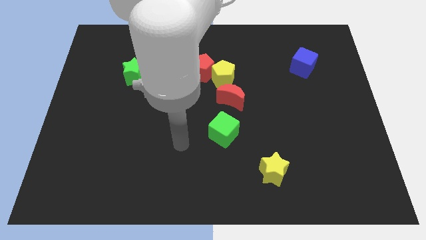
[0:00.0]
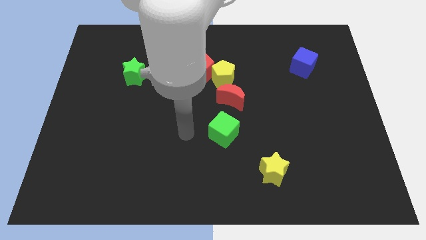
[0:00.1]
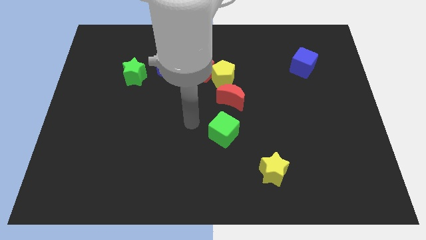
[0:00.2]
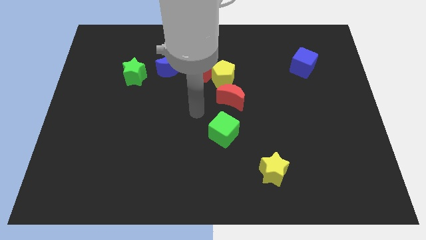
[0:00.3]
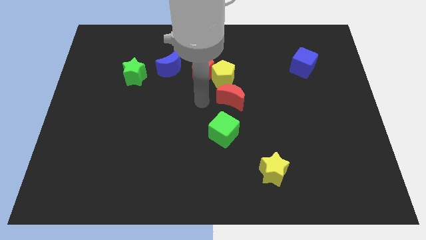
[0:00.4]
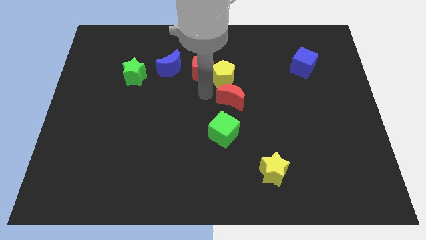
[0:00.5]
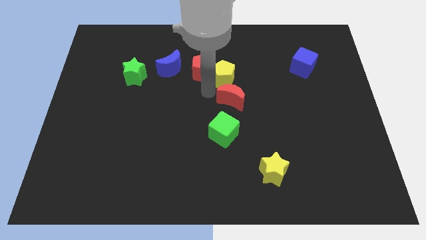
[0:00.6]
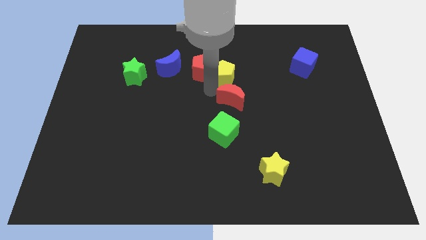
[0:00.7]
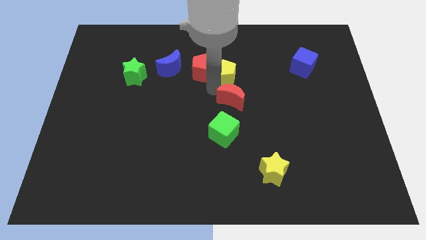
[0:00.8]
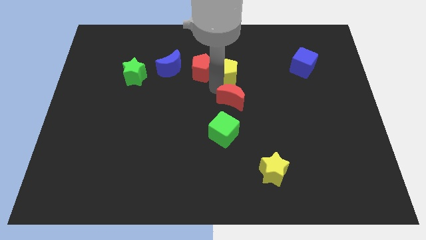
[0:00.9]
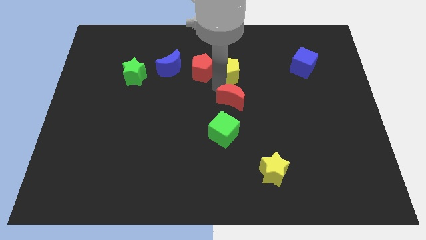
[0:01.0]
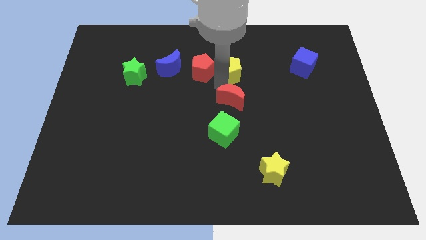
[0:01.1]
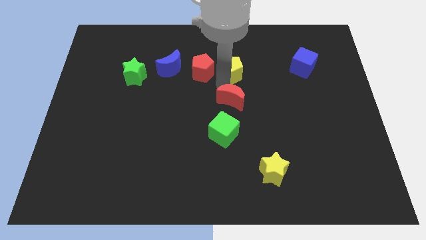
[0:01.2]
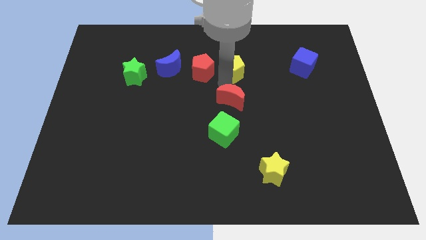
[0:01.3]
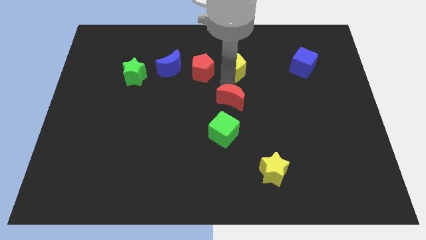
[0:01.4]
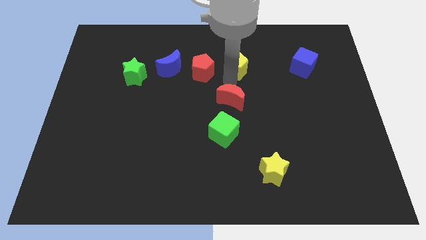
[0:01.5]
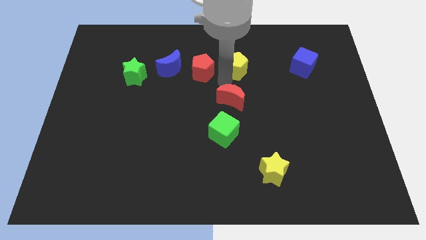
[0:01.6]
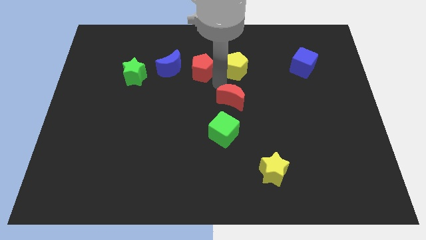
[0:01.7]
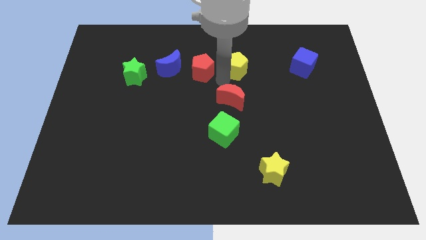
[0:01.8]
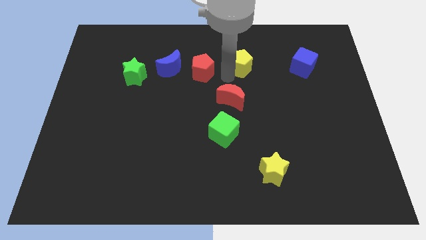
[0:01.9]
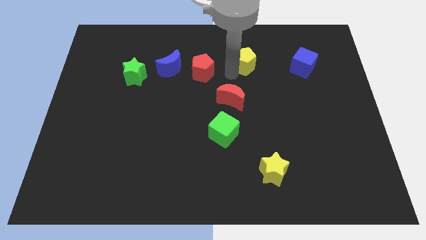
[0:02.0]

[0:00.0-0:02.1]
move the yellow pentagon away from the red pentagon and red moon

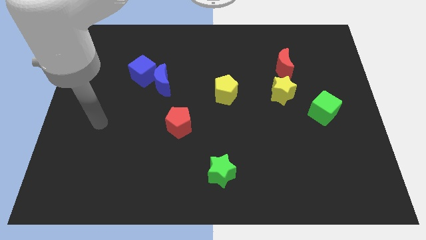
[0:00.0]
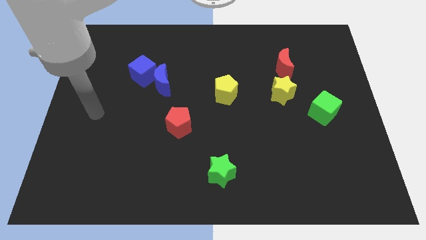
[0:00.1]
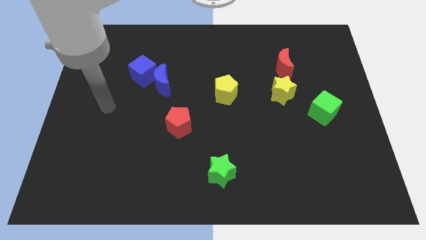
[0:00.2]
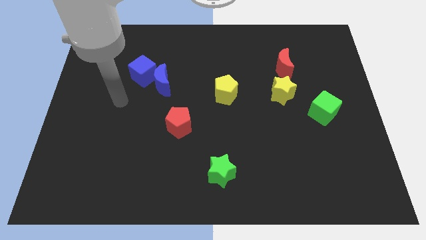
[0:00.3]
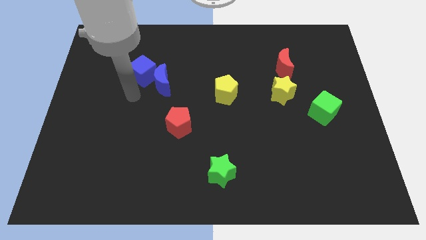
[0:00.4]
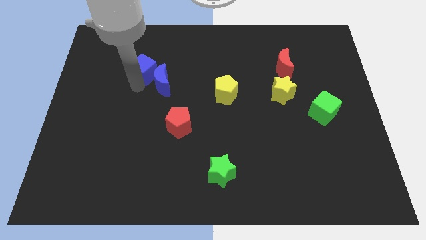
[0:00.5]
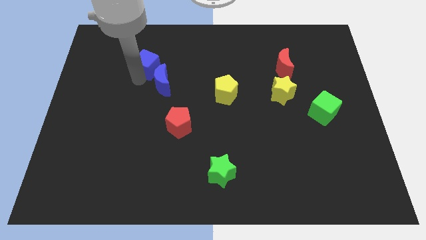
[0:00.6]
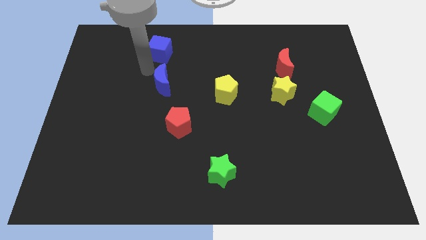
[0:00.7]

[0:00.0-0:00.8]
separate the blue moon from the blue cube

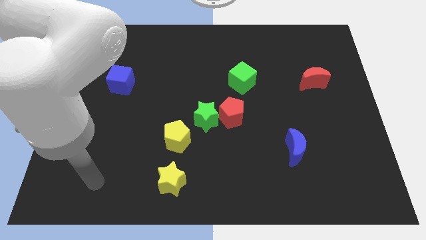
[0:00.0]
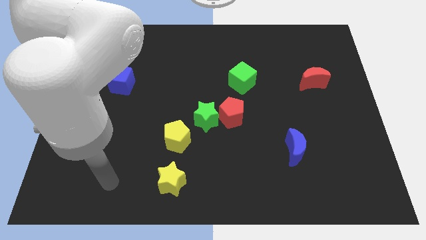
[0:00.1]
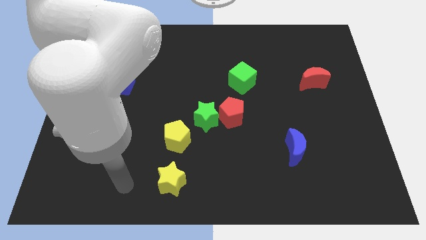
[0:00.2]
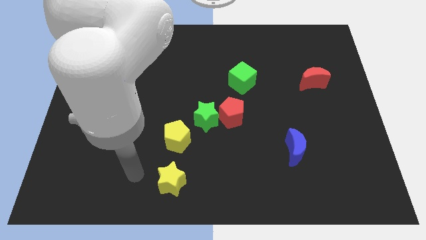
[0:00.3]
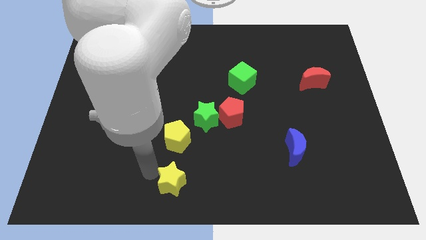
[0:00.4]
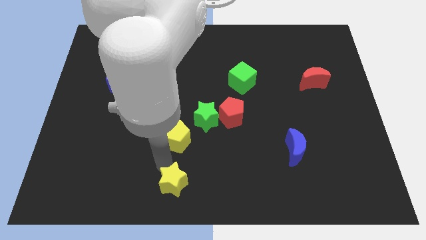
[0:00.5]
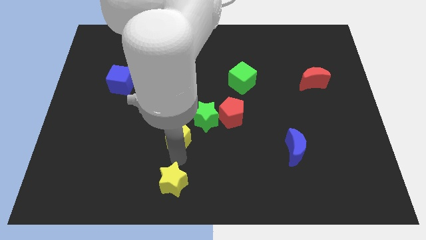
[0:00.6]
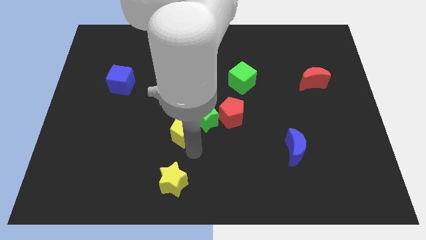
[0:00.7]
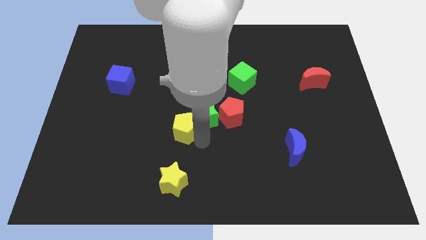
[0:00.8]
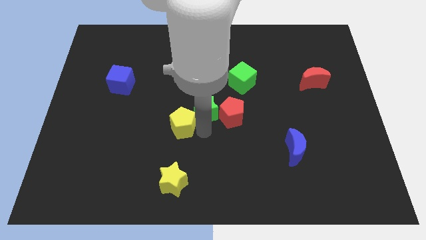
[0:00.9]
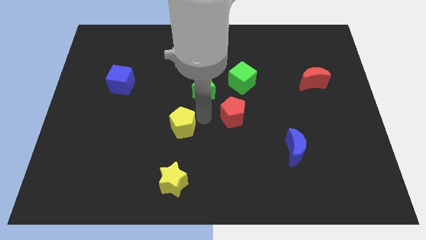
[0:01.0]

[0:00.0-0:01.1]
move the red pentagon away from the green star

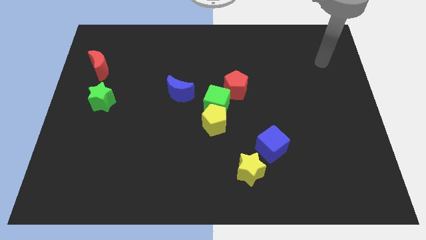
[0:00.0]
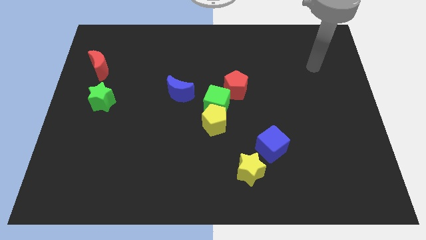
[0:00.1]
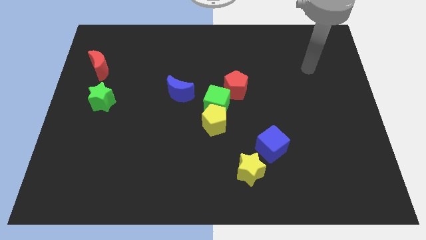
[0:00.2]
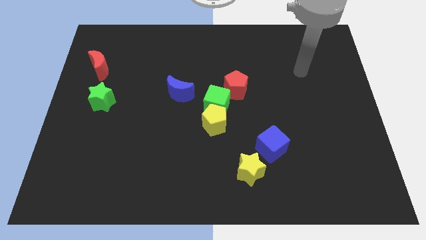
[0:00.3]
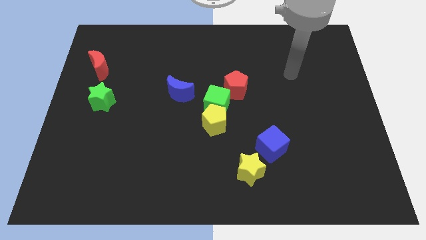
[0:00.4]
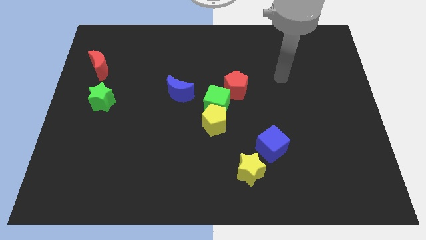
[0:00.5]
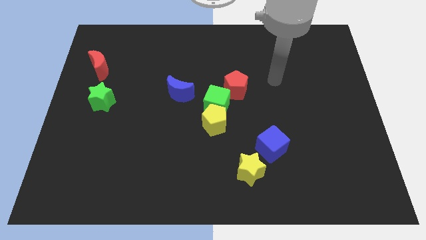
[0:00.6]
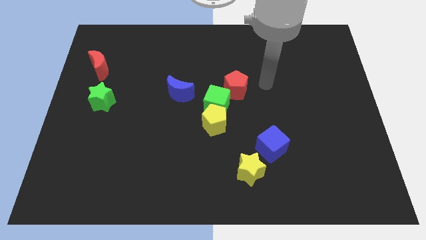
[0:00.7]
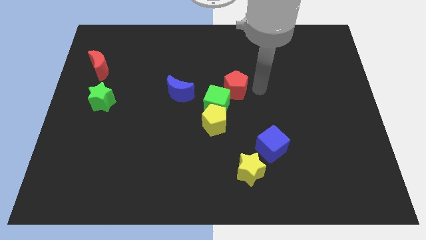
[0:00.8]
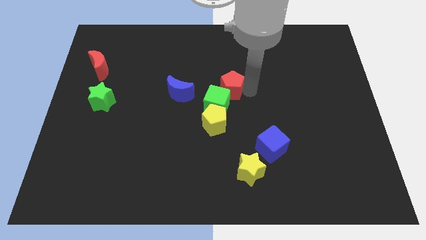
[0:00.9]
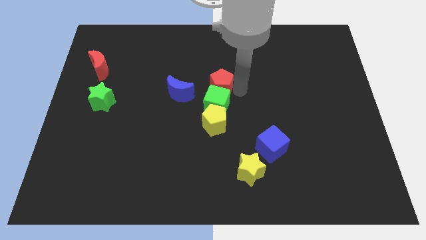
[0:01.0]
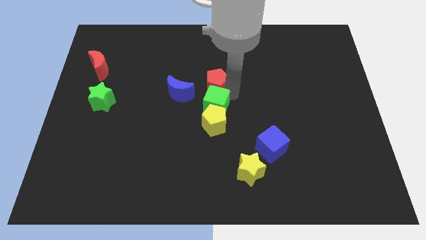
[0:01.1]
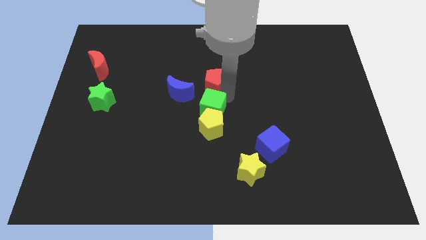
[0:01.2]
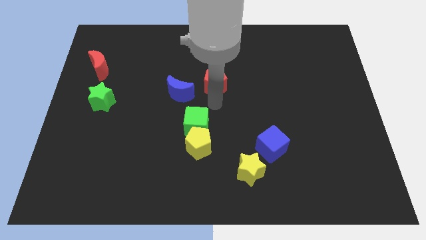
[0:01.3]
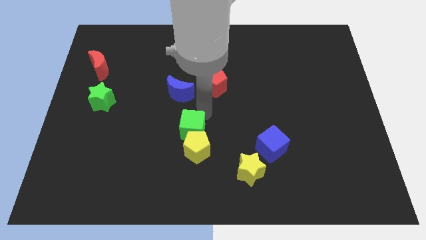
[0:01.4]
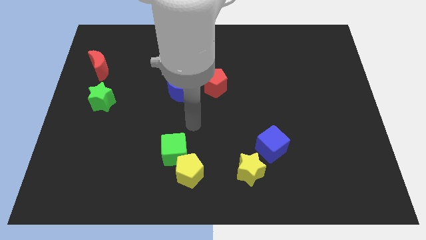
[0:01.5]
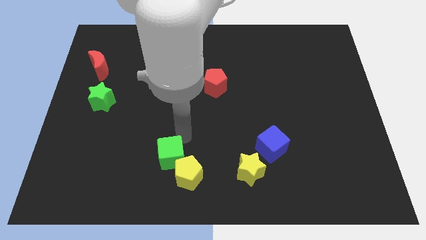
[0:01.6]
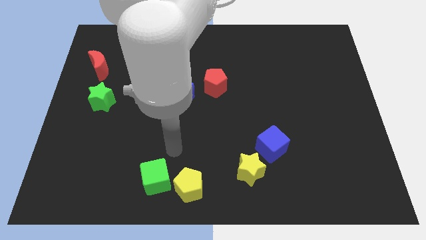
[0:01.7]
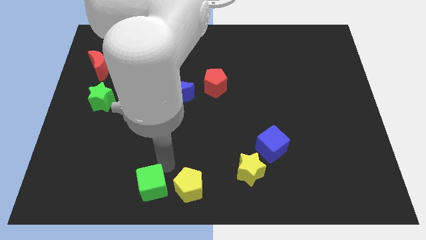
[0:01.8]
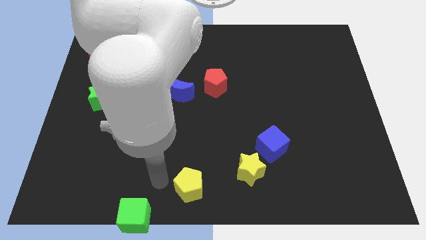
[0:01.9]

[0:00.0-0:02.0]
separate the yellow pentagon from the green cube

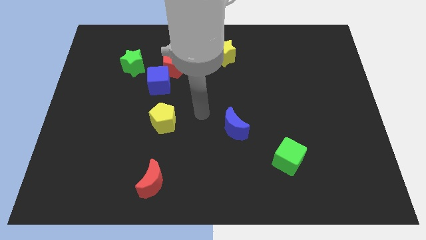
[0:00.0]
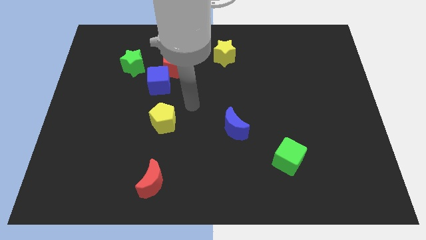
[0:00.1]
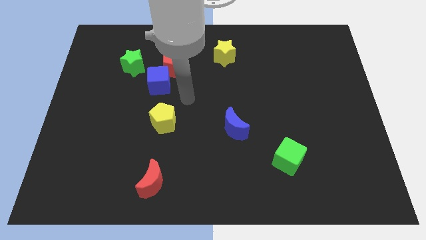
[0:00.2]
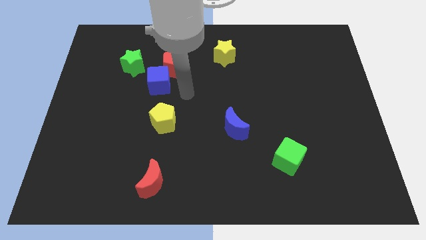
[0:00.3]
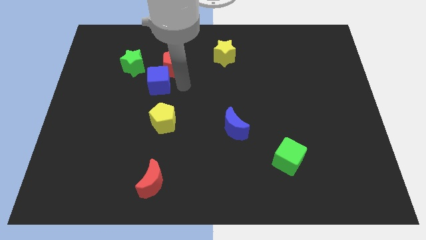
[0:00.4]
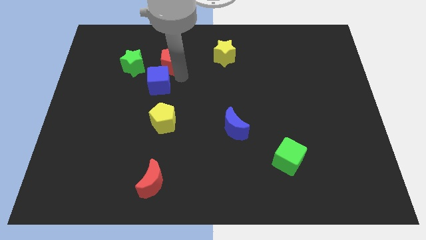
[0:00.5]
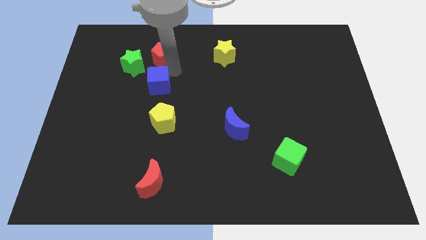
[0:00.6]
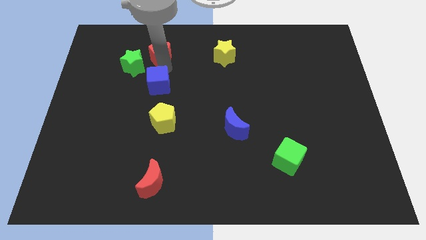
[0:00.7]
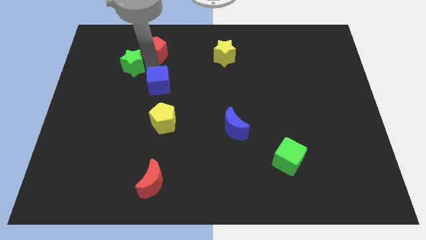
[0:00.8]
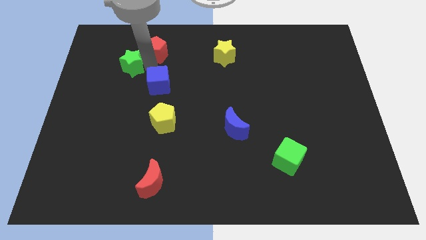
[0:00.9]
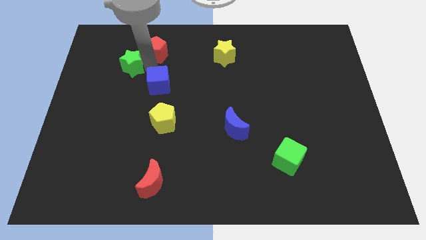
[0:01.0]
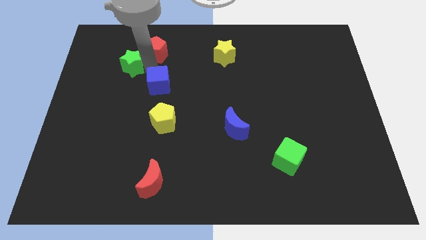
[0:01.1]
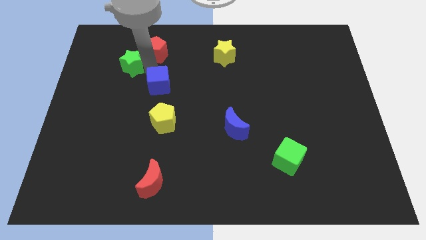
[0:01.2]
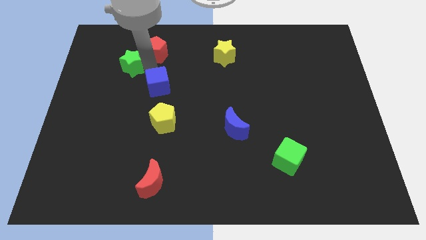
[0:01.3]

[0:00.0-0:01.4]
move the blue cube away from the red pentagon and green star

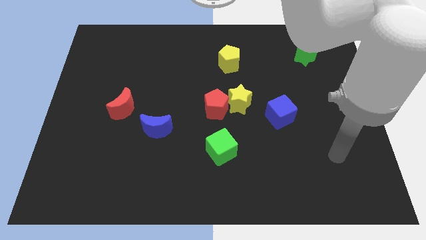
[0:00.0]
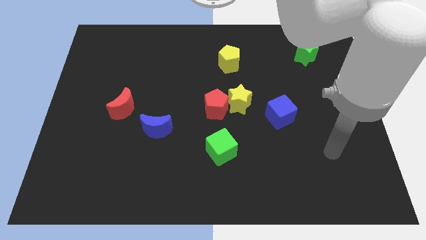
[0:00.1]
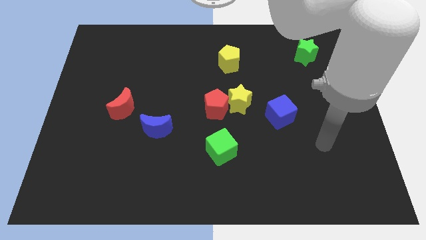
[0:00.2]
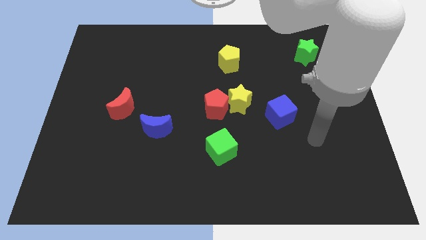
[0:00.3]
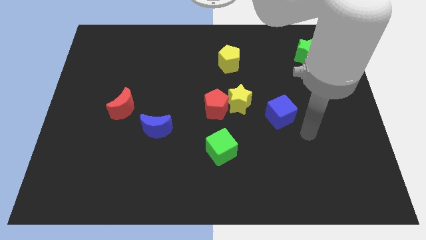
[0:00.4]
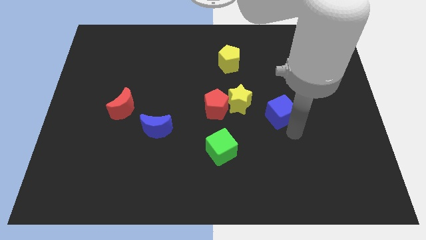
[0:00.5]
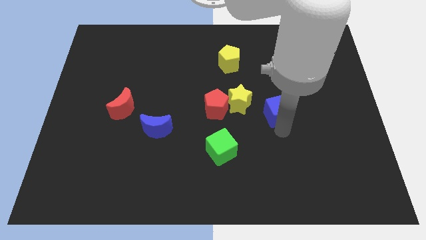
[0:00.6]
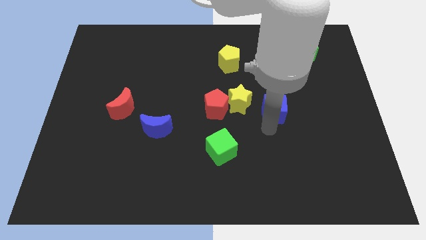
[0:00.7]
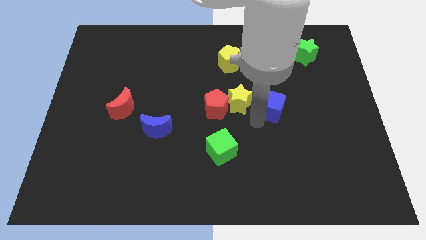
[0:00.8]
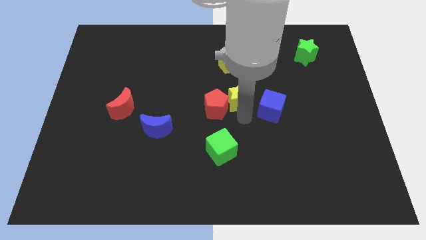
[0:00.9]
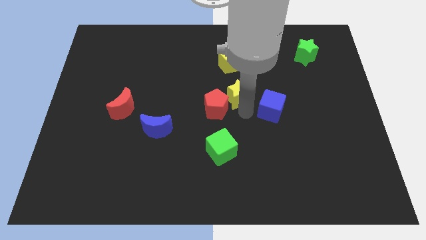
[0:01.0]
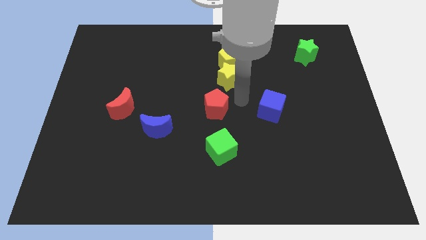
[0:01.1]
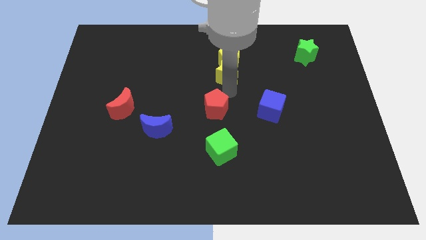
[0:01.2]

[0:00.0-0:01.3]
separate the red pentagon from the yellow star

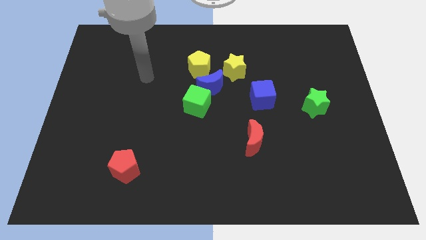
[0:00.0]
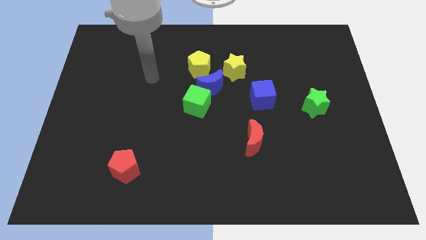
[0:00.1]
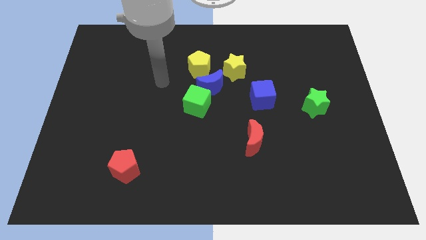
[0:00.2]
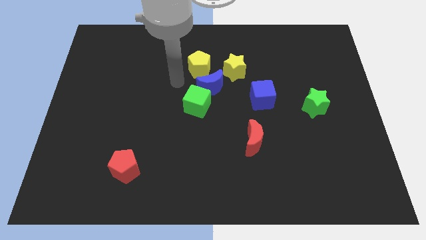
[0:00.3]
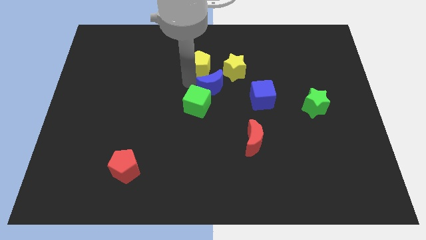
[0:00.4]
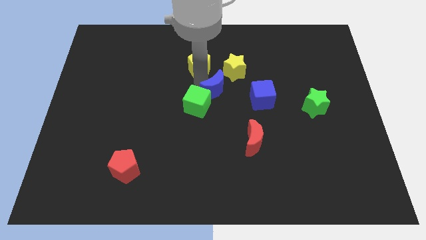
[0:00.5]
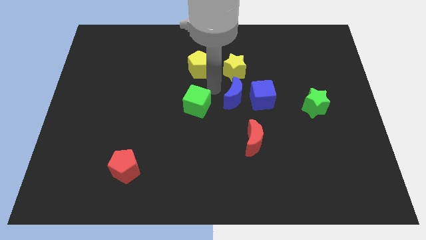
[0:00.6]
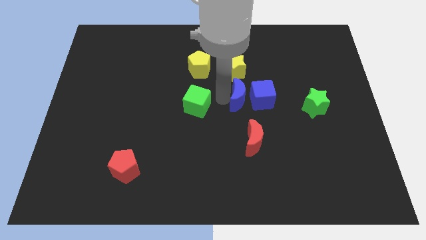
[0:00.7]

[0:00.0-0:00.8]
separate the green cube from the blue moon
